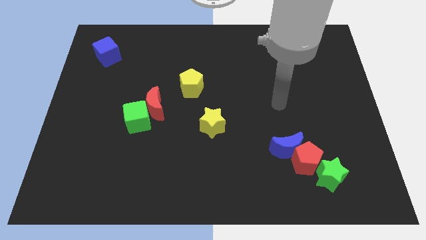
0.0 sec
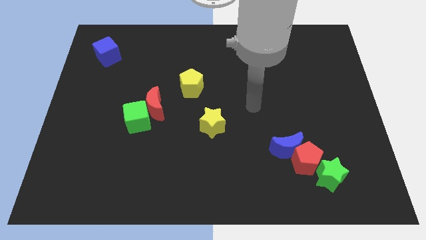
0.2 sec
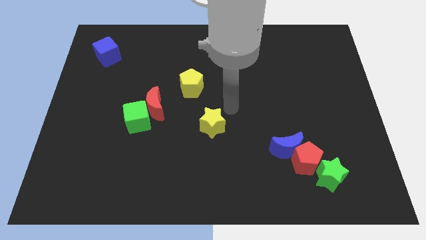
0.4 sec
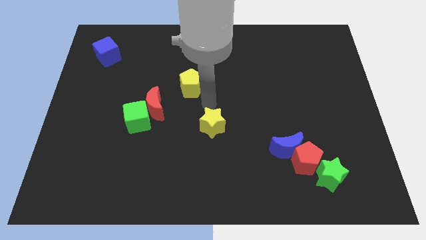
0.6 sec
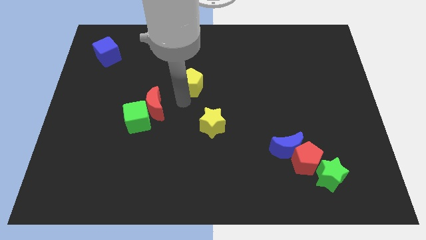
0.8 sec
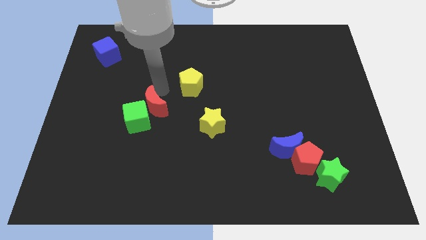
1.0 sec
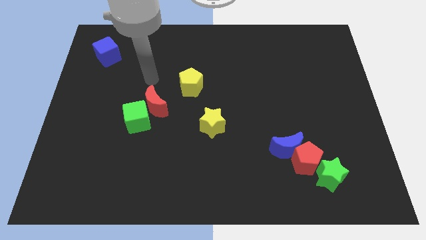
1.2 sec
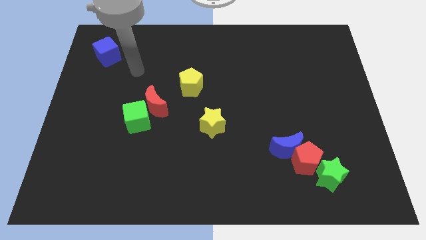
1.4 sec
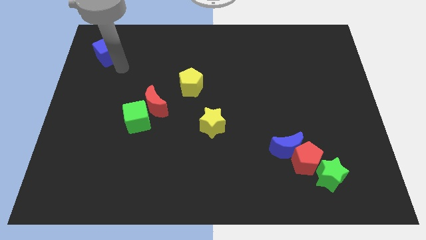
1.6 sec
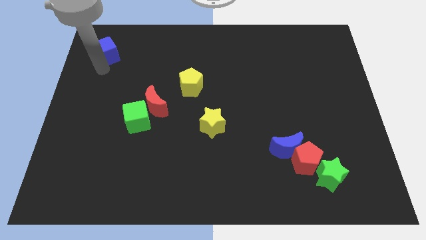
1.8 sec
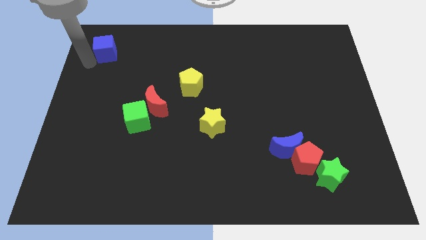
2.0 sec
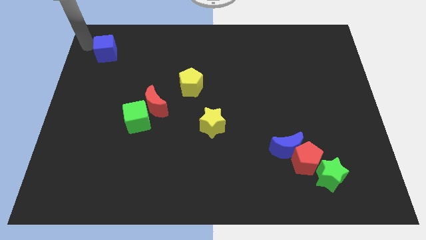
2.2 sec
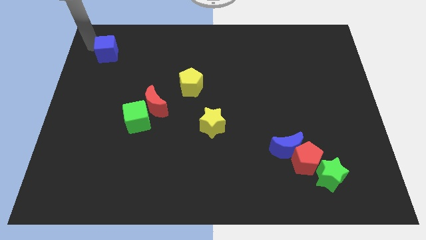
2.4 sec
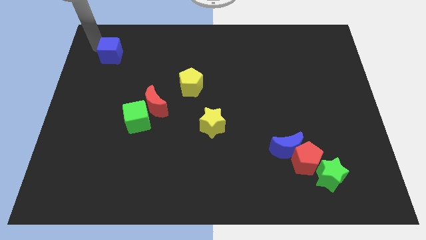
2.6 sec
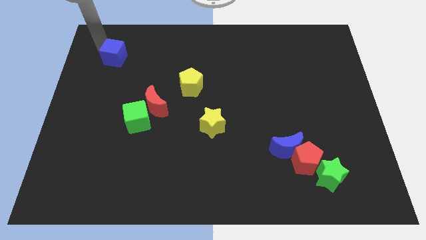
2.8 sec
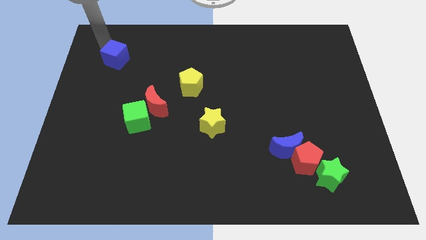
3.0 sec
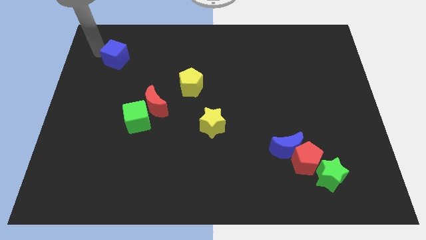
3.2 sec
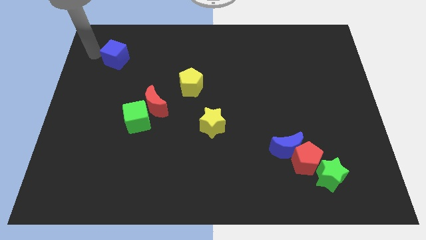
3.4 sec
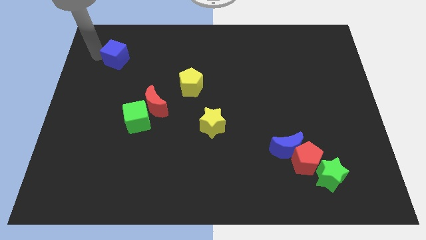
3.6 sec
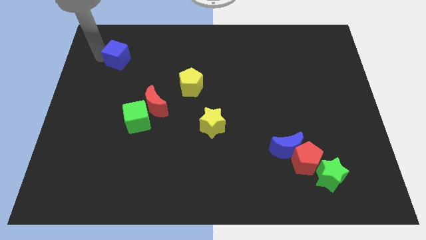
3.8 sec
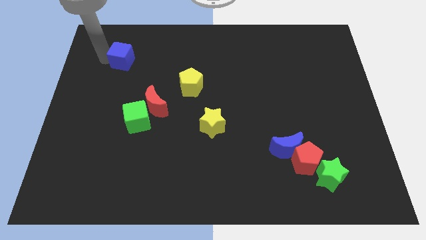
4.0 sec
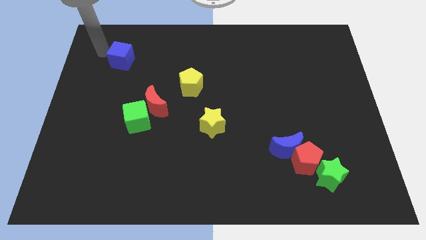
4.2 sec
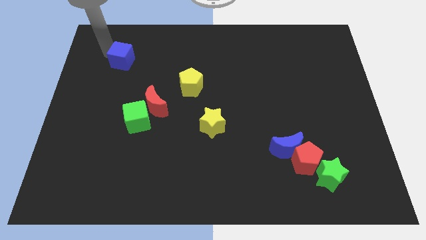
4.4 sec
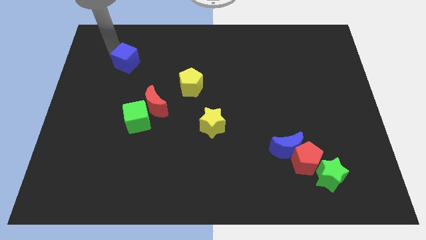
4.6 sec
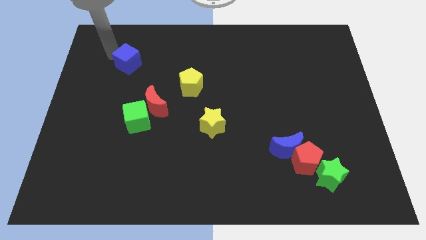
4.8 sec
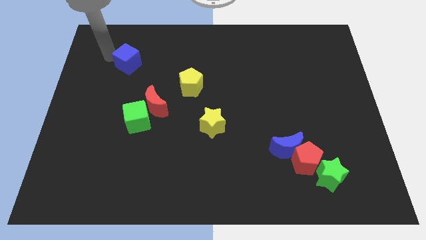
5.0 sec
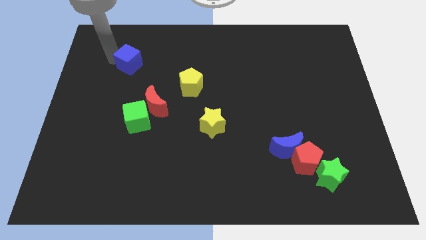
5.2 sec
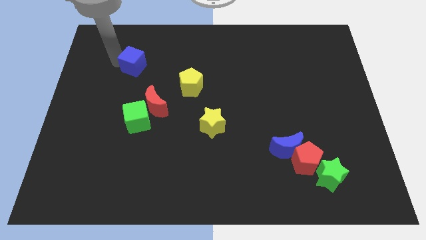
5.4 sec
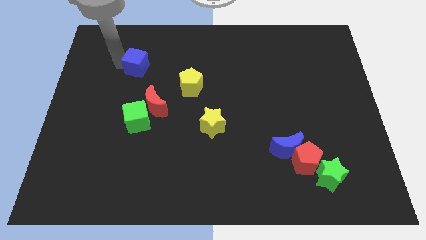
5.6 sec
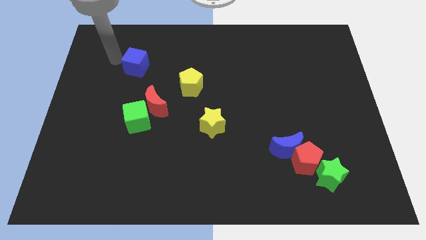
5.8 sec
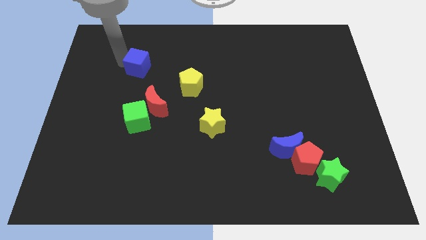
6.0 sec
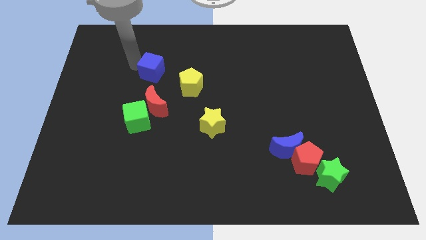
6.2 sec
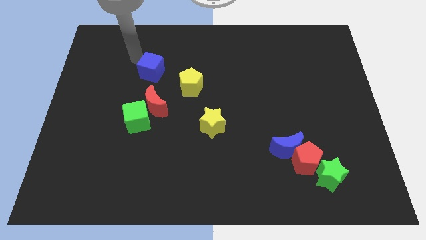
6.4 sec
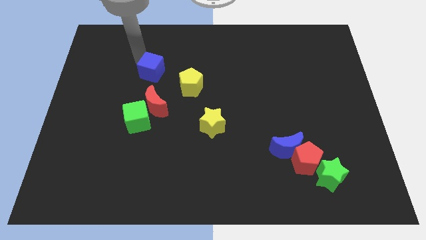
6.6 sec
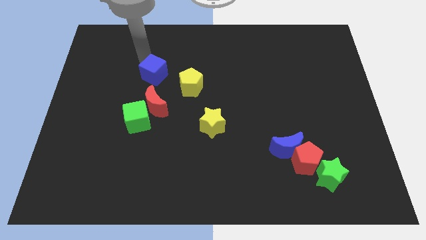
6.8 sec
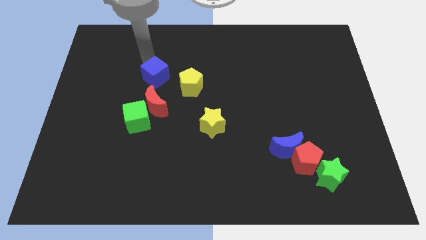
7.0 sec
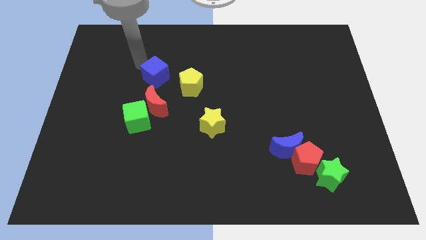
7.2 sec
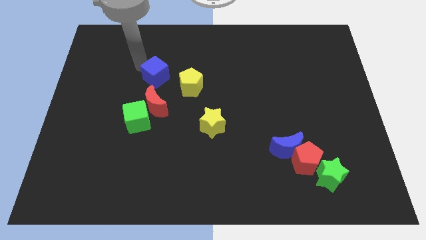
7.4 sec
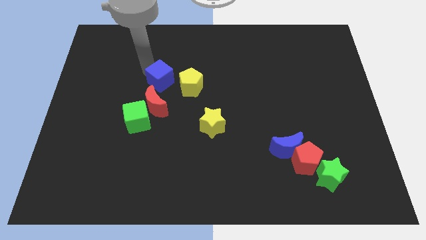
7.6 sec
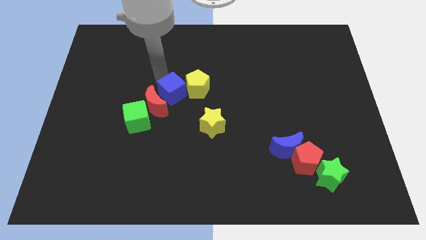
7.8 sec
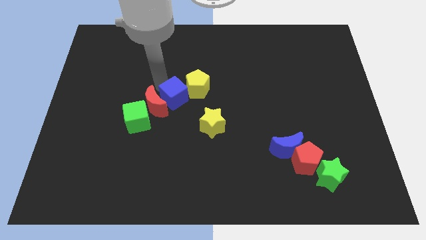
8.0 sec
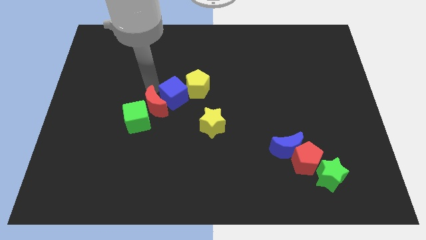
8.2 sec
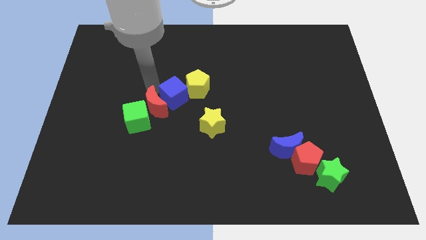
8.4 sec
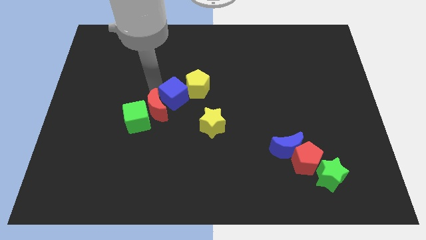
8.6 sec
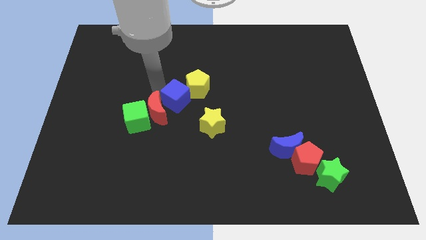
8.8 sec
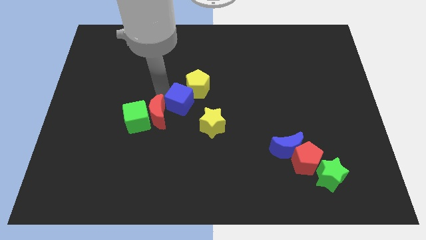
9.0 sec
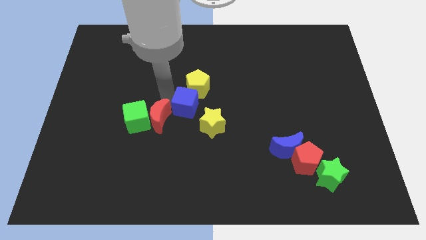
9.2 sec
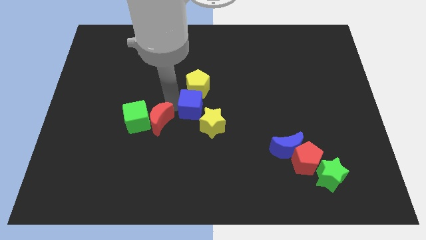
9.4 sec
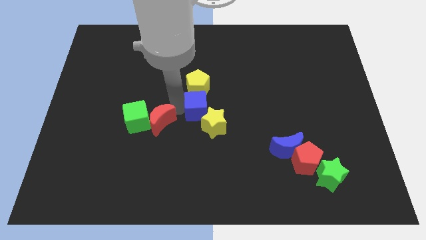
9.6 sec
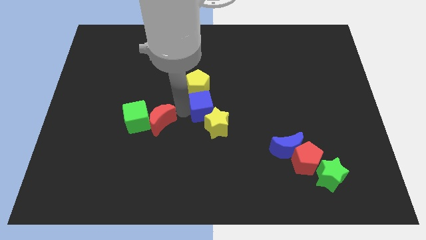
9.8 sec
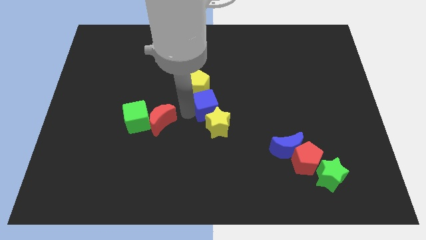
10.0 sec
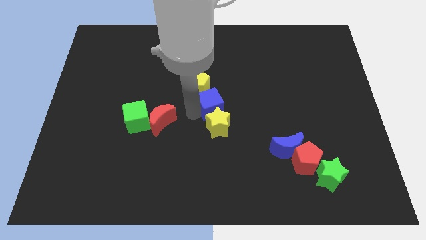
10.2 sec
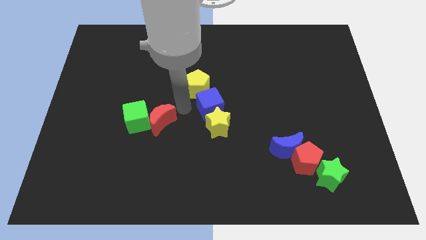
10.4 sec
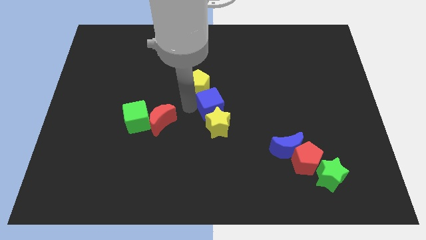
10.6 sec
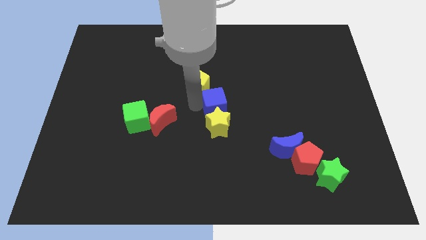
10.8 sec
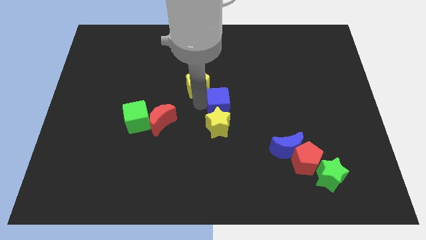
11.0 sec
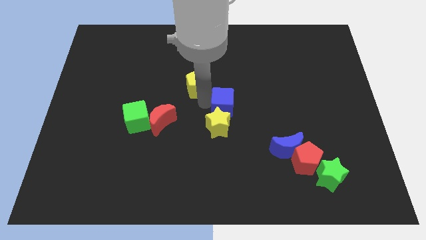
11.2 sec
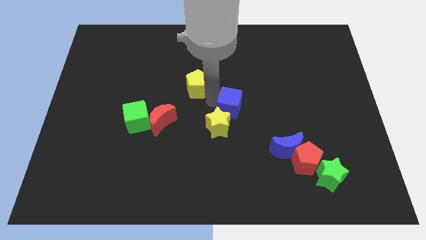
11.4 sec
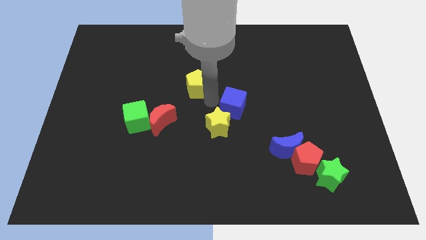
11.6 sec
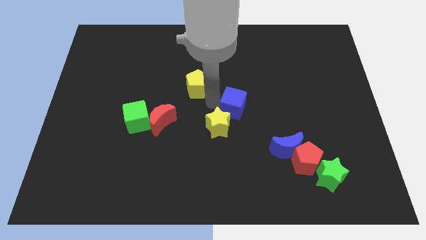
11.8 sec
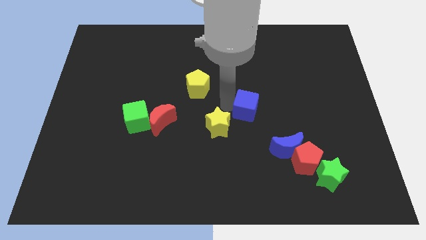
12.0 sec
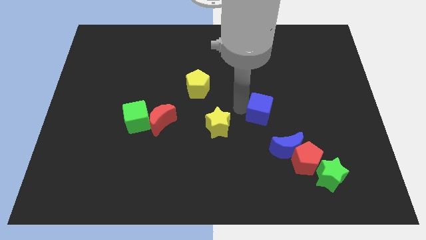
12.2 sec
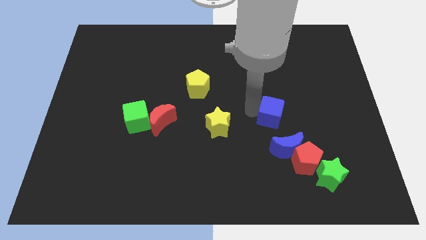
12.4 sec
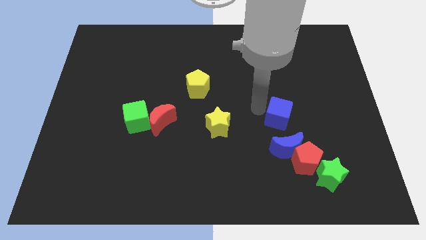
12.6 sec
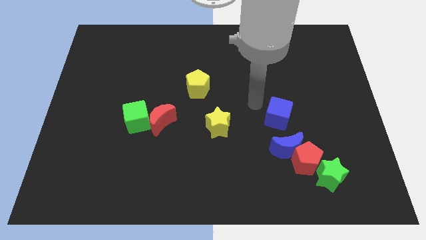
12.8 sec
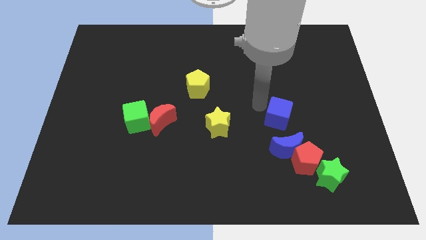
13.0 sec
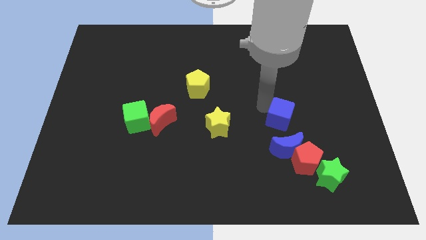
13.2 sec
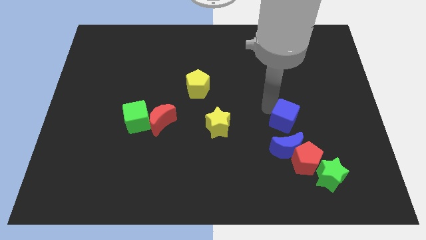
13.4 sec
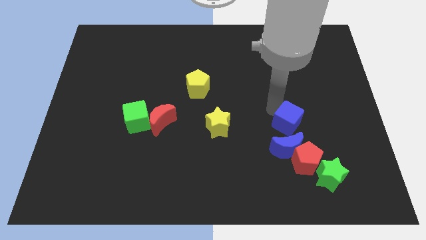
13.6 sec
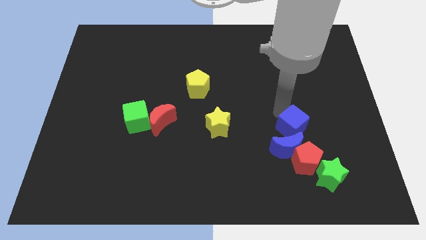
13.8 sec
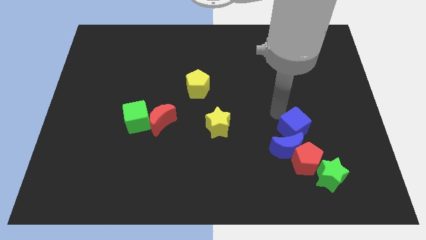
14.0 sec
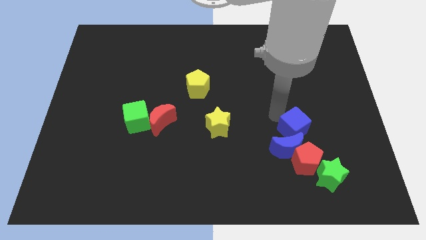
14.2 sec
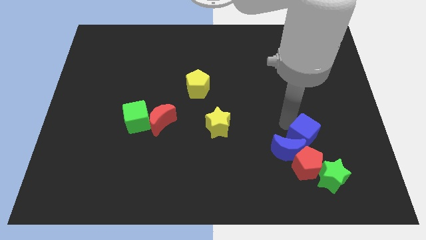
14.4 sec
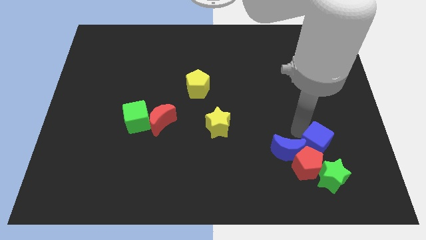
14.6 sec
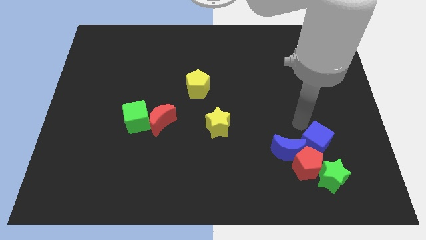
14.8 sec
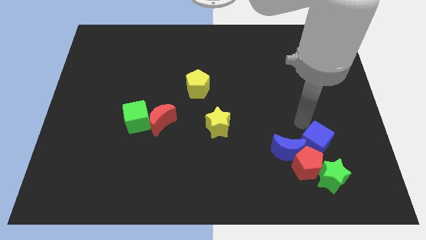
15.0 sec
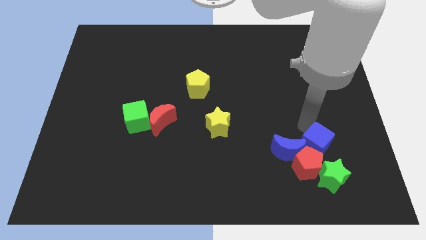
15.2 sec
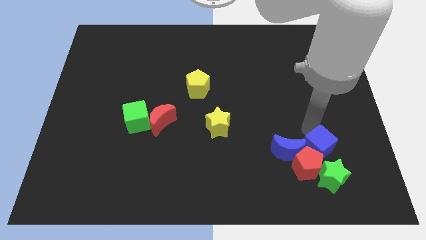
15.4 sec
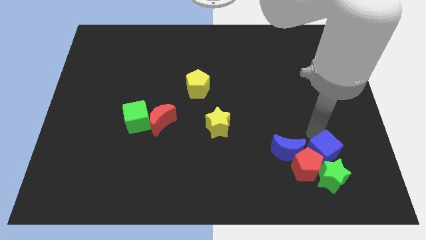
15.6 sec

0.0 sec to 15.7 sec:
slide the blue cube close to the green star
